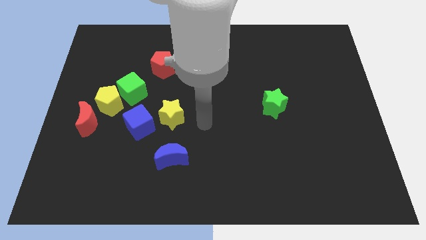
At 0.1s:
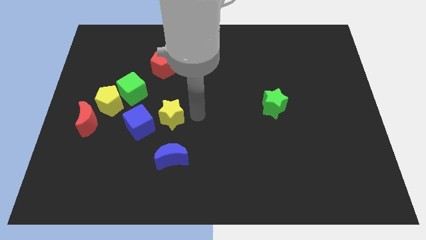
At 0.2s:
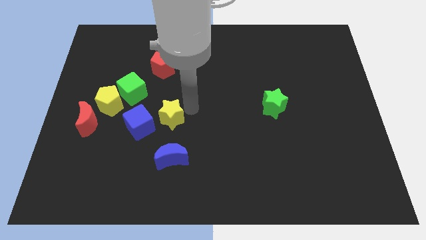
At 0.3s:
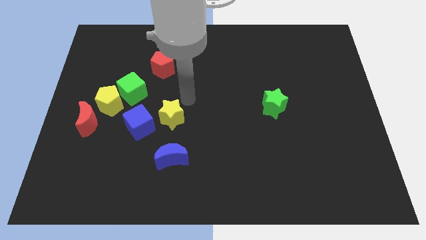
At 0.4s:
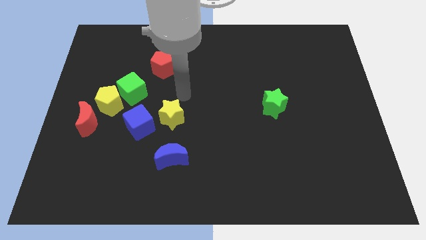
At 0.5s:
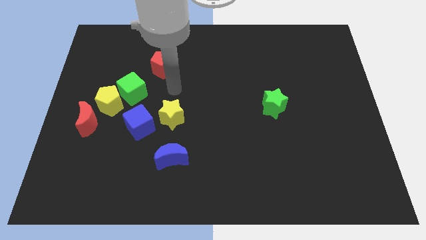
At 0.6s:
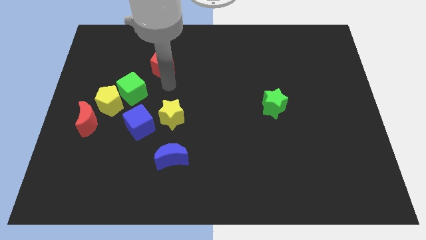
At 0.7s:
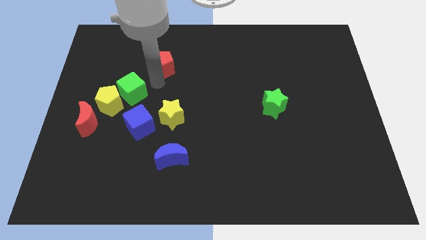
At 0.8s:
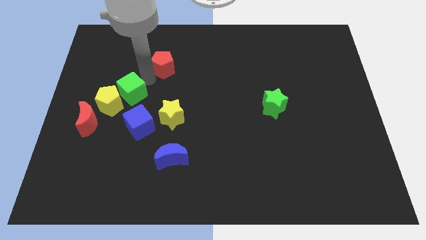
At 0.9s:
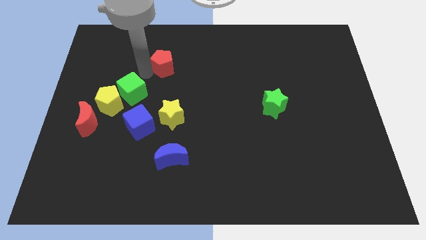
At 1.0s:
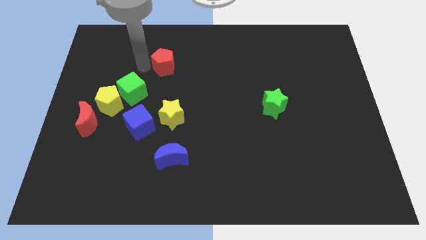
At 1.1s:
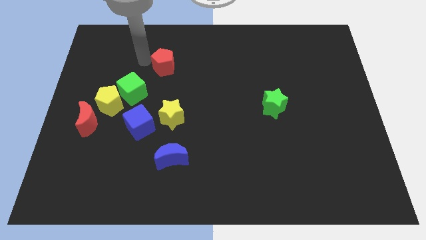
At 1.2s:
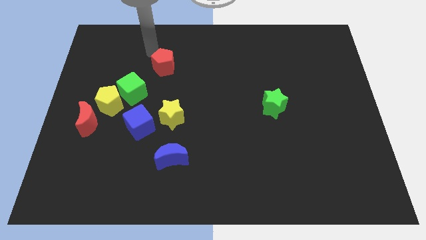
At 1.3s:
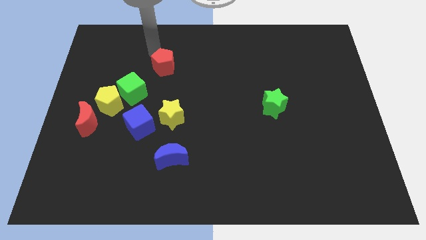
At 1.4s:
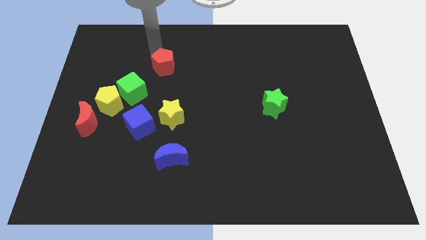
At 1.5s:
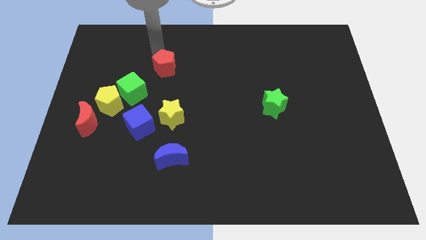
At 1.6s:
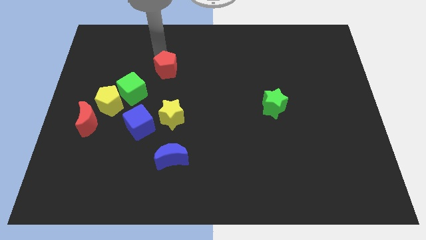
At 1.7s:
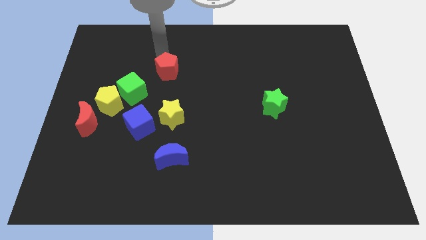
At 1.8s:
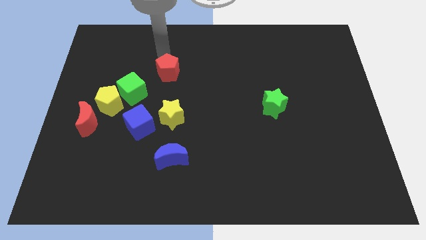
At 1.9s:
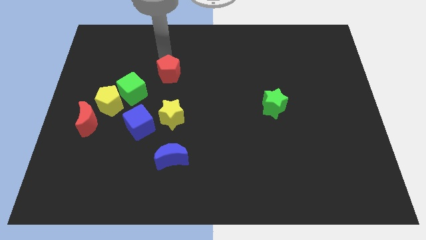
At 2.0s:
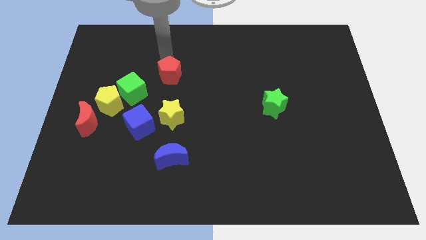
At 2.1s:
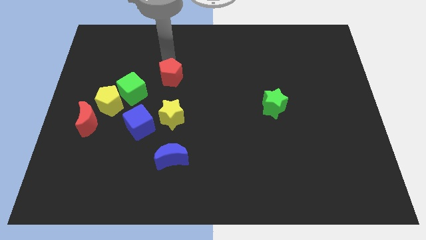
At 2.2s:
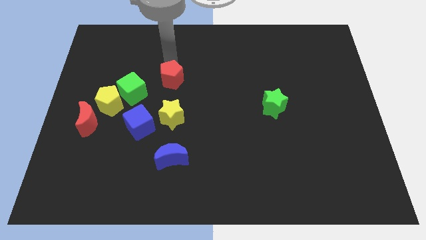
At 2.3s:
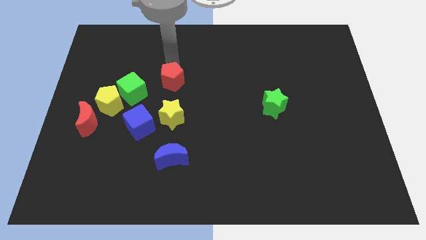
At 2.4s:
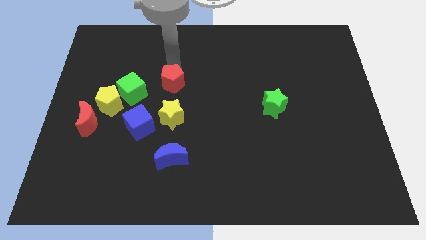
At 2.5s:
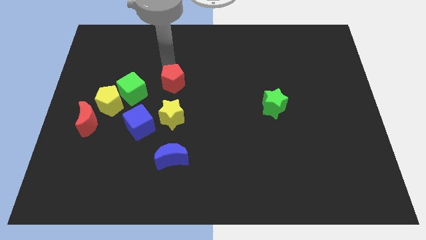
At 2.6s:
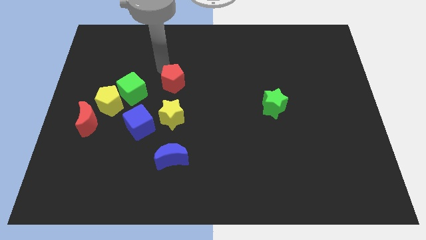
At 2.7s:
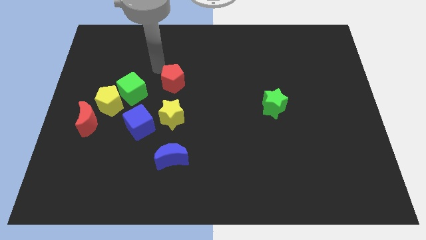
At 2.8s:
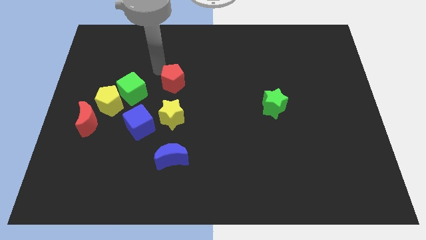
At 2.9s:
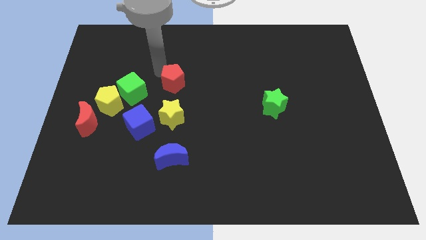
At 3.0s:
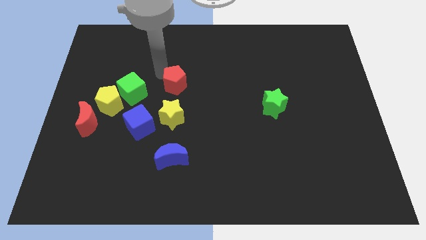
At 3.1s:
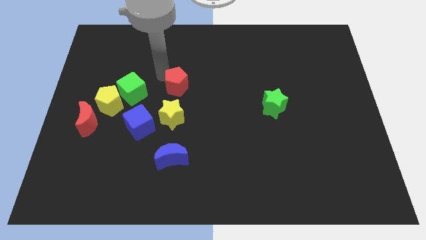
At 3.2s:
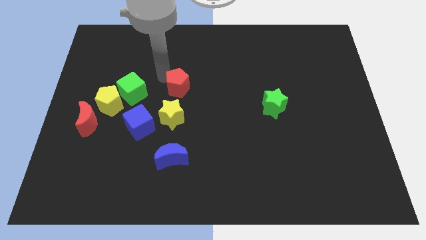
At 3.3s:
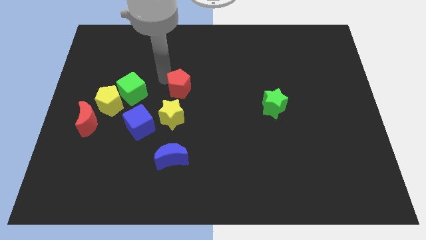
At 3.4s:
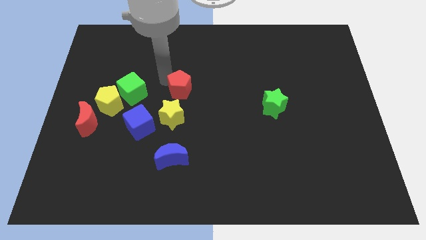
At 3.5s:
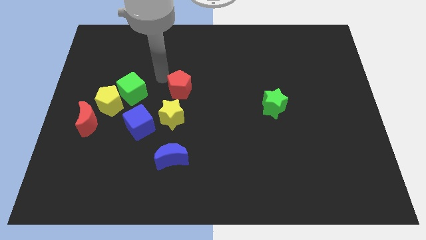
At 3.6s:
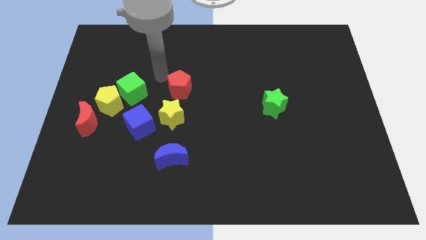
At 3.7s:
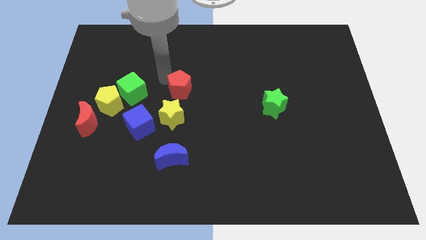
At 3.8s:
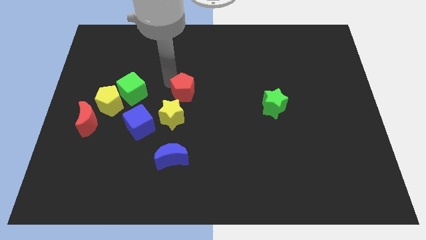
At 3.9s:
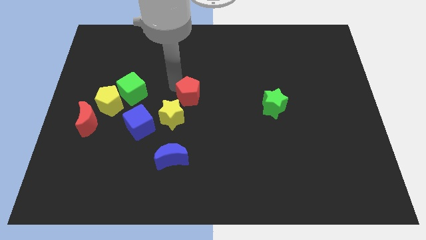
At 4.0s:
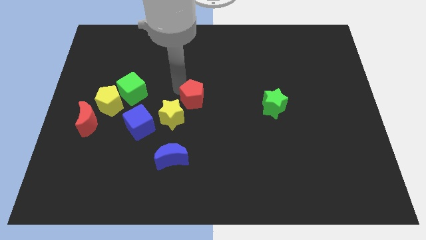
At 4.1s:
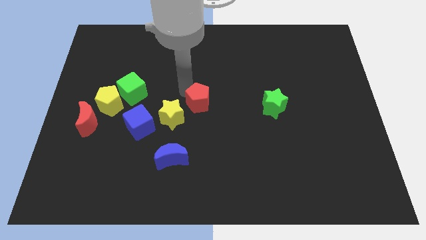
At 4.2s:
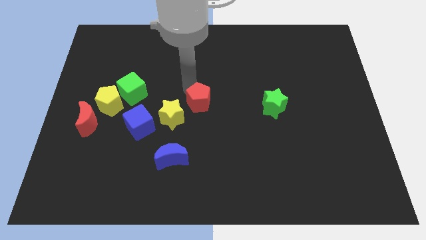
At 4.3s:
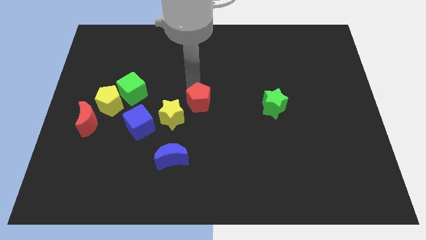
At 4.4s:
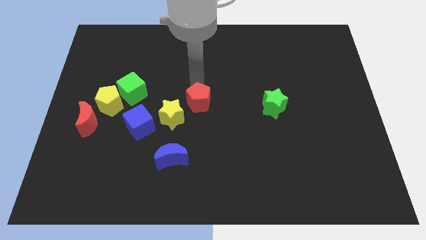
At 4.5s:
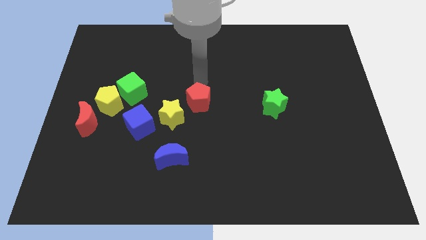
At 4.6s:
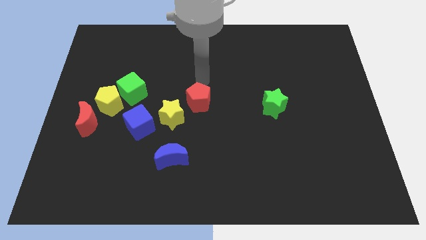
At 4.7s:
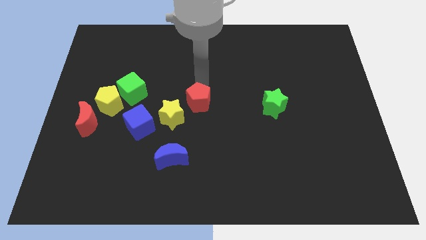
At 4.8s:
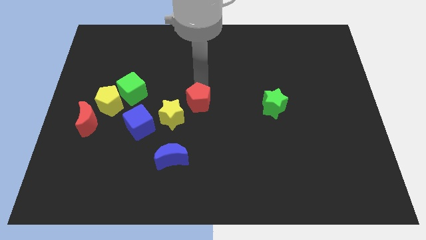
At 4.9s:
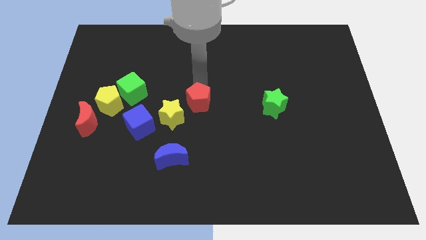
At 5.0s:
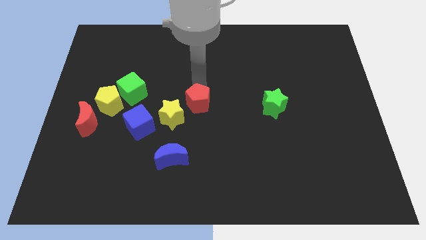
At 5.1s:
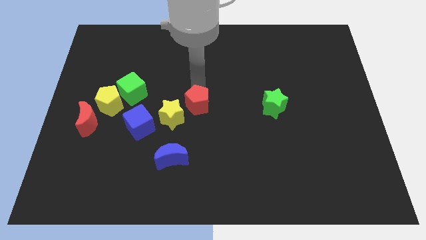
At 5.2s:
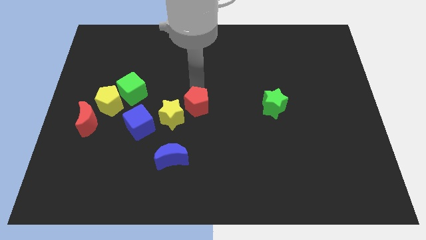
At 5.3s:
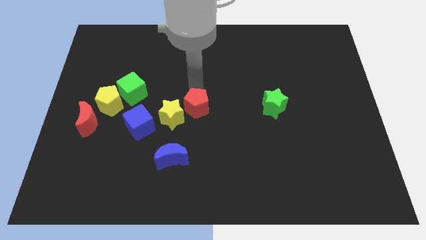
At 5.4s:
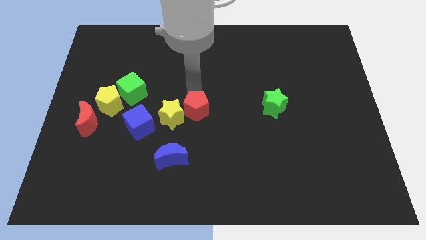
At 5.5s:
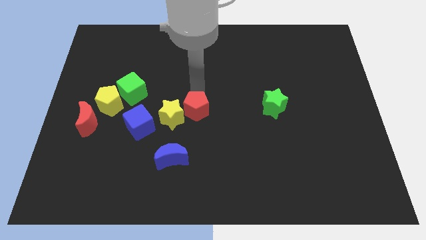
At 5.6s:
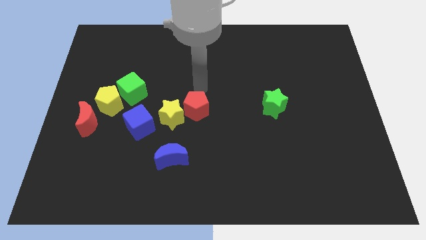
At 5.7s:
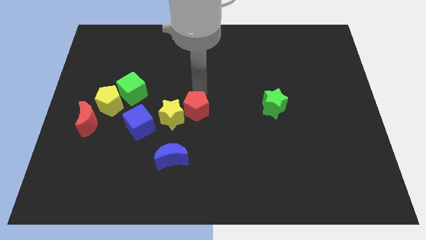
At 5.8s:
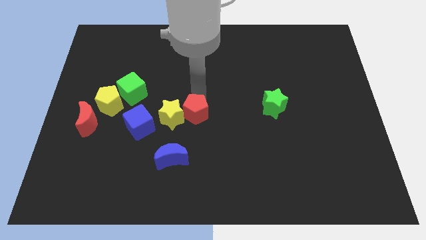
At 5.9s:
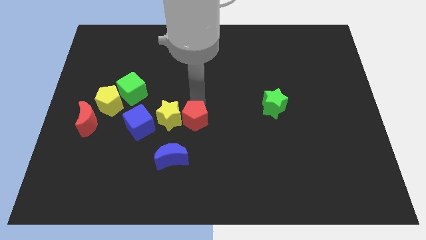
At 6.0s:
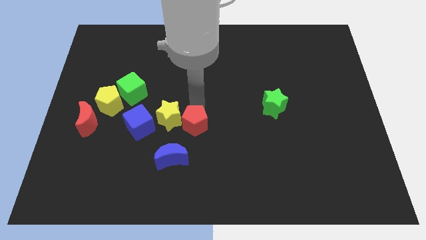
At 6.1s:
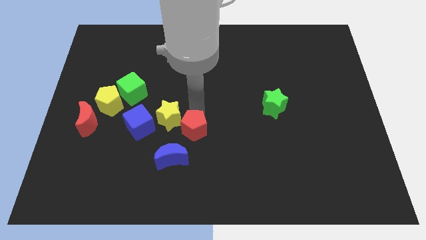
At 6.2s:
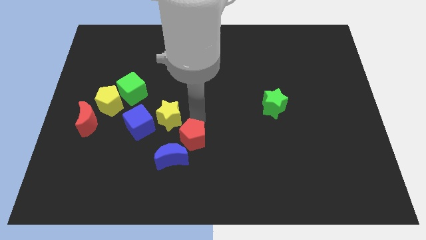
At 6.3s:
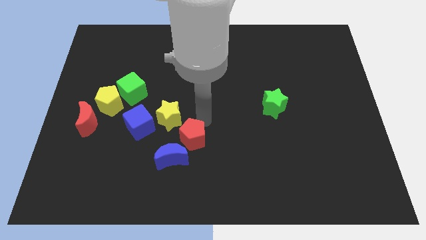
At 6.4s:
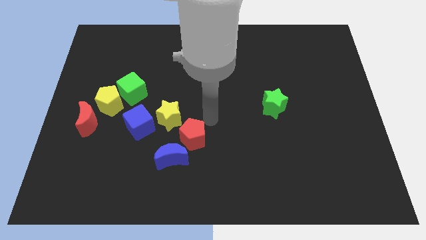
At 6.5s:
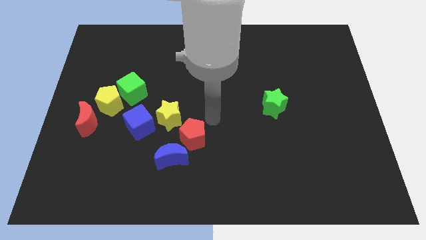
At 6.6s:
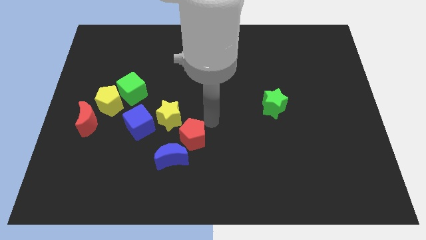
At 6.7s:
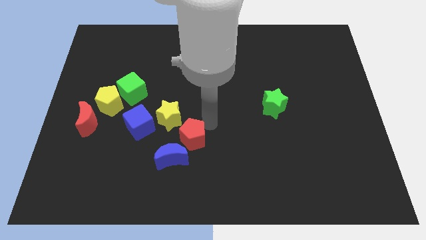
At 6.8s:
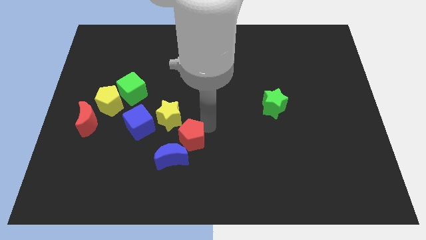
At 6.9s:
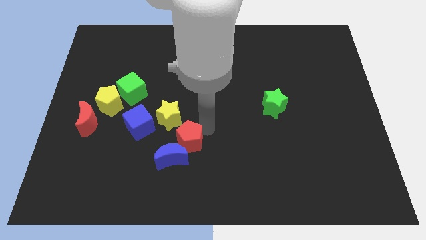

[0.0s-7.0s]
put the red pentagon close to the blue moon

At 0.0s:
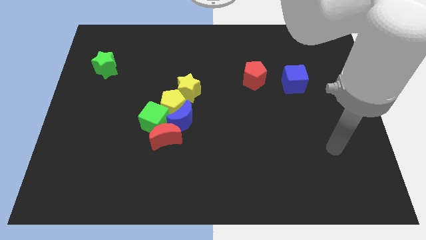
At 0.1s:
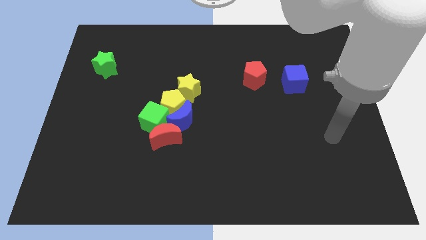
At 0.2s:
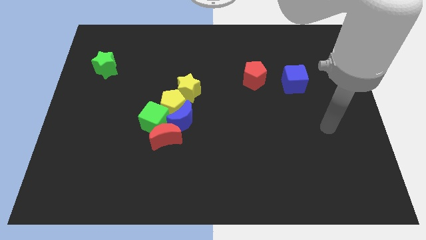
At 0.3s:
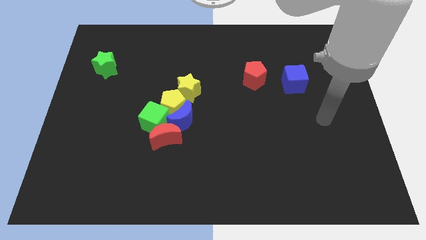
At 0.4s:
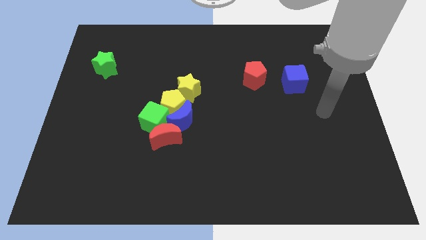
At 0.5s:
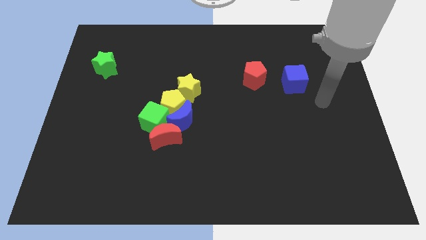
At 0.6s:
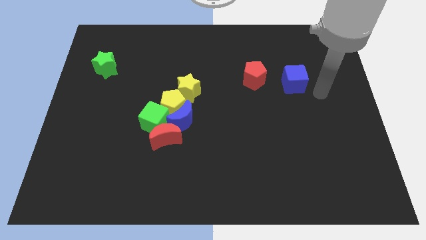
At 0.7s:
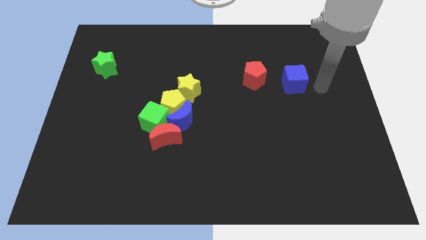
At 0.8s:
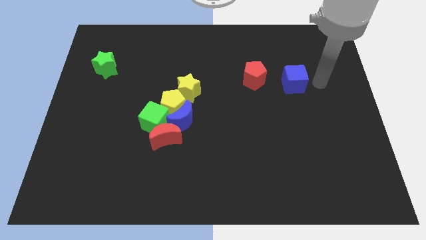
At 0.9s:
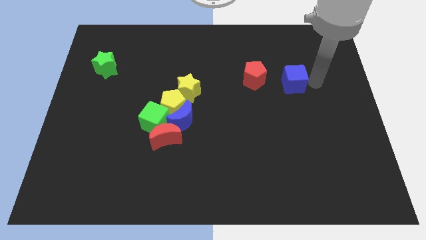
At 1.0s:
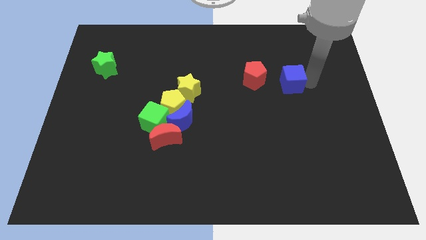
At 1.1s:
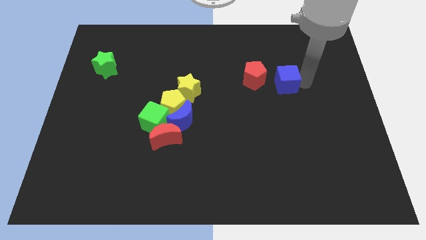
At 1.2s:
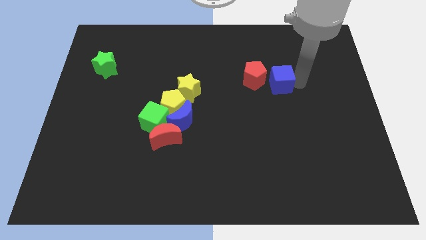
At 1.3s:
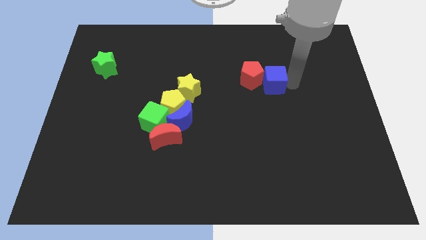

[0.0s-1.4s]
push the blue cube next to the red pentagon
